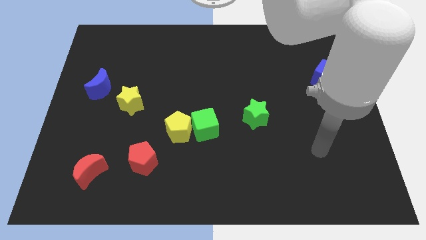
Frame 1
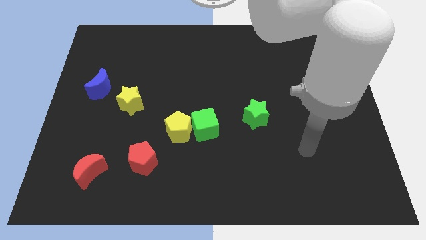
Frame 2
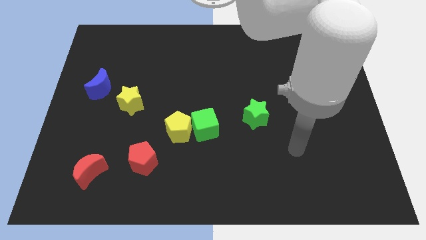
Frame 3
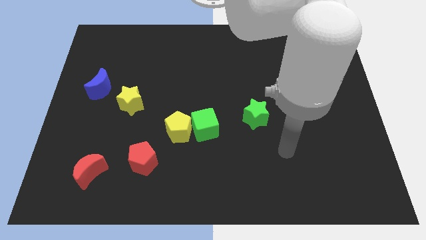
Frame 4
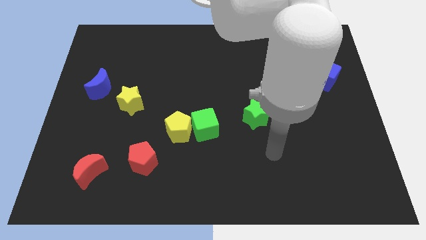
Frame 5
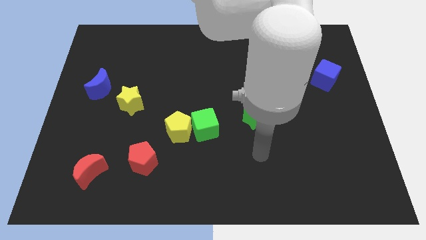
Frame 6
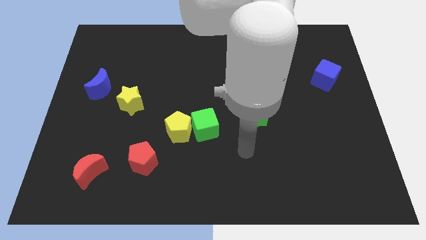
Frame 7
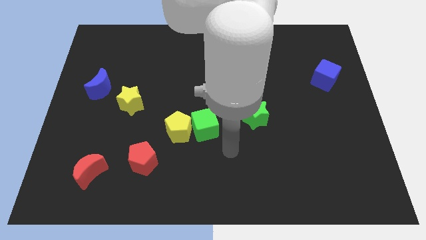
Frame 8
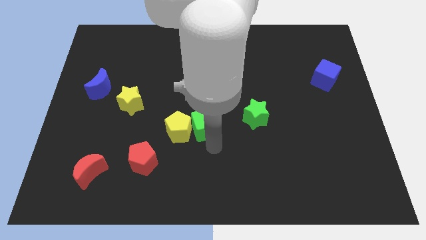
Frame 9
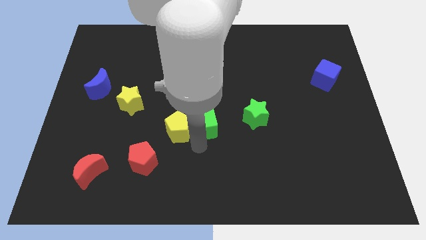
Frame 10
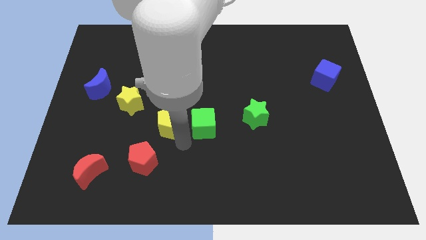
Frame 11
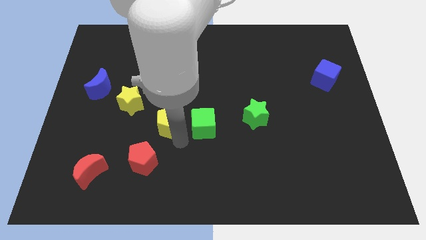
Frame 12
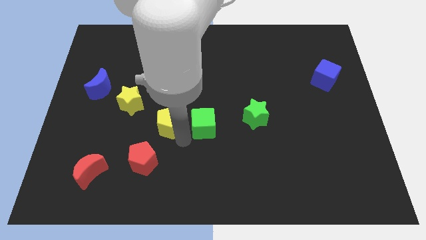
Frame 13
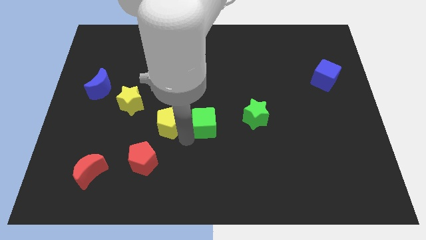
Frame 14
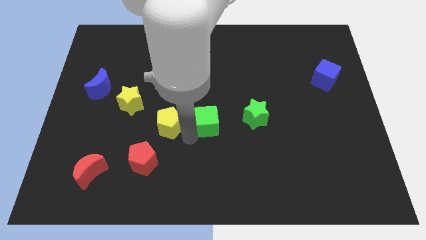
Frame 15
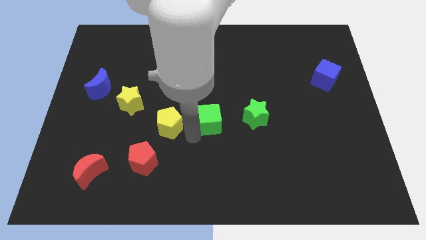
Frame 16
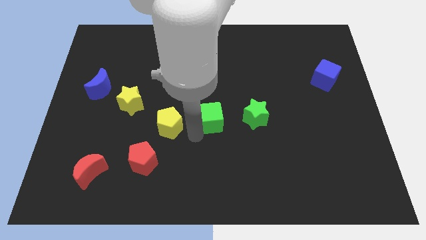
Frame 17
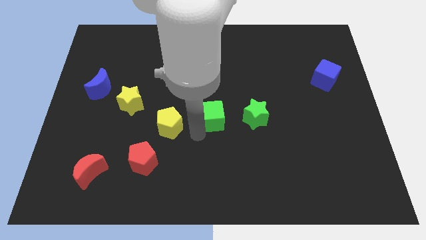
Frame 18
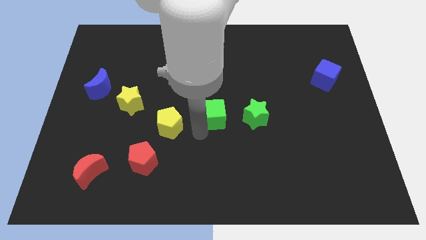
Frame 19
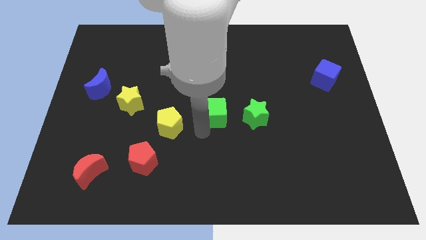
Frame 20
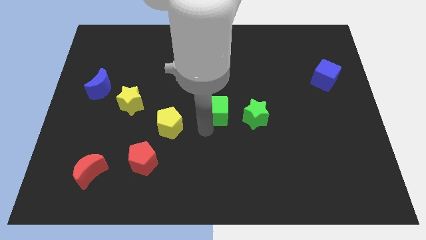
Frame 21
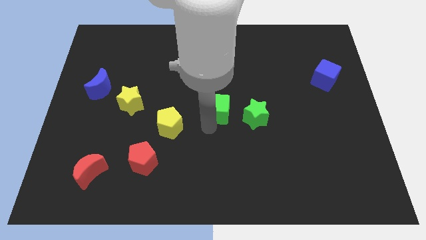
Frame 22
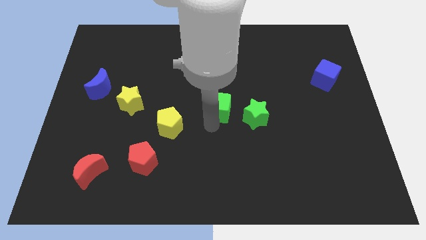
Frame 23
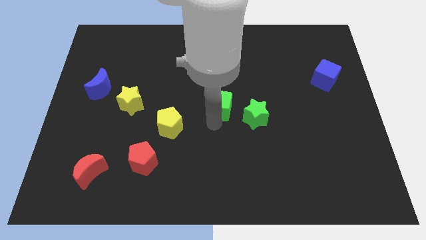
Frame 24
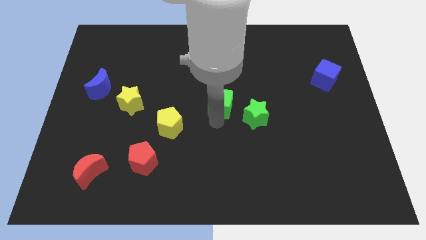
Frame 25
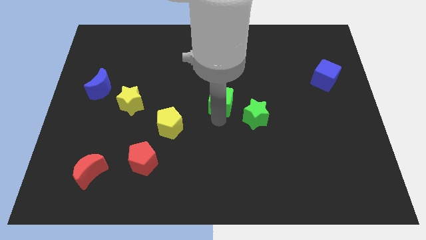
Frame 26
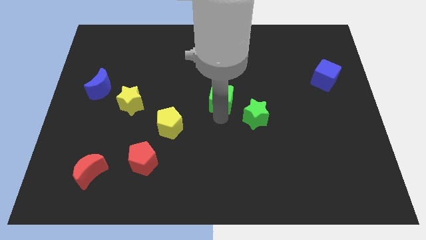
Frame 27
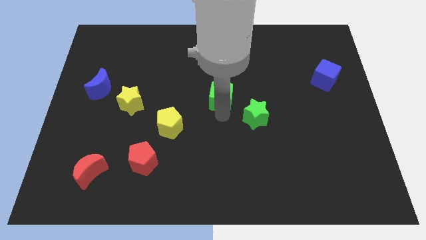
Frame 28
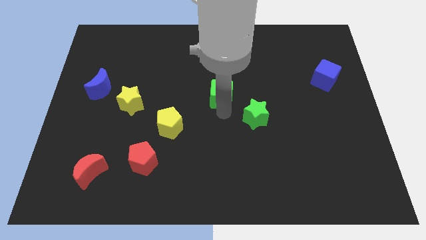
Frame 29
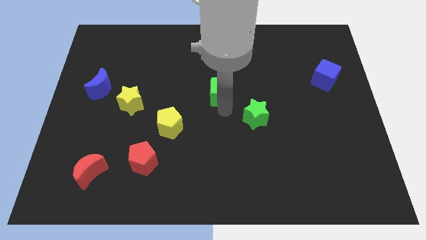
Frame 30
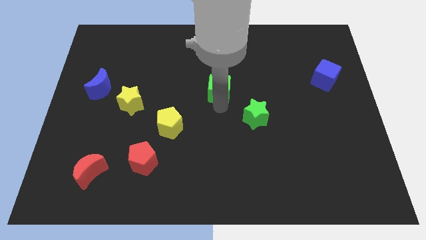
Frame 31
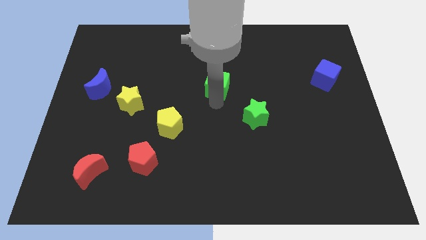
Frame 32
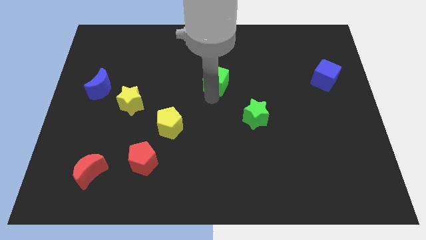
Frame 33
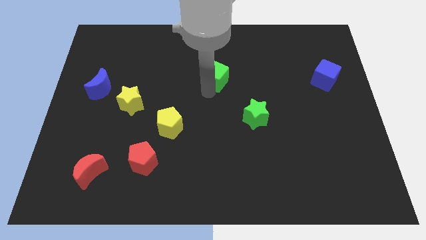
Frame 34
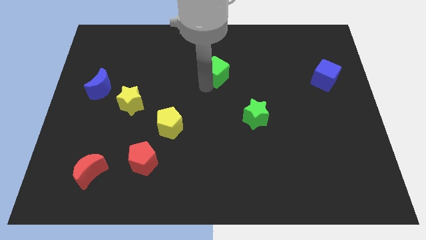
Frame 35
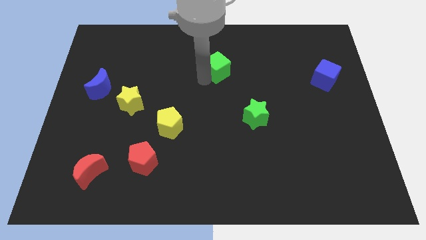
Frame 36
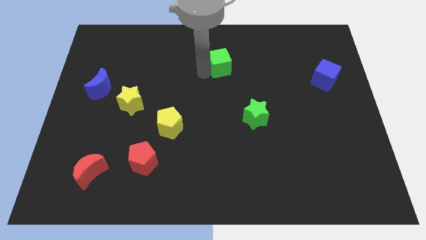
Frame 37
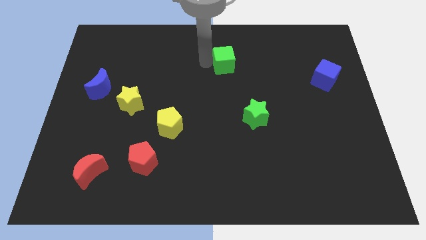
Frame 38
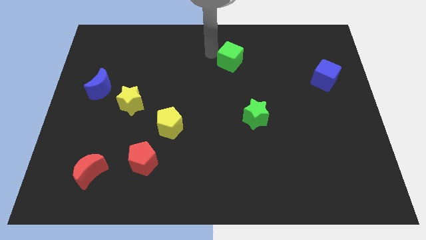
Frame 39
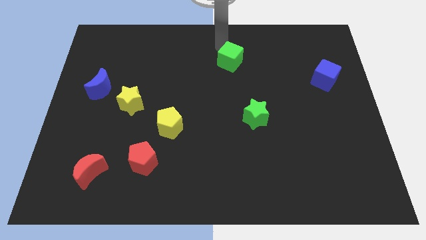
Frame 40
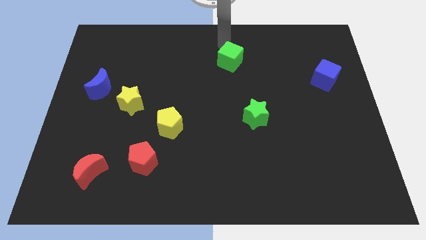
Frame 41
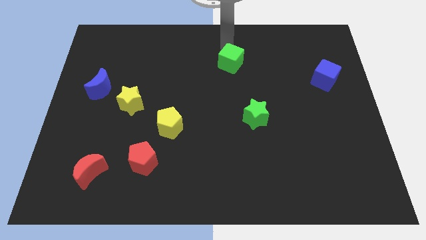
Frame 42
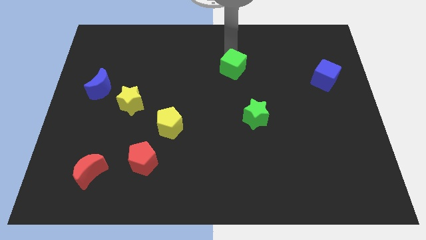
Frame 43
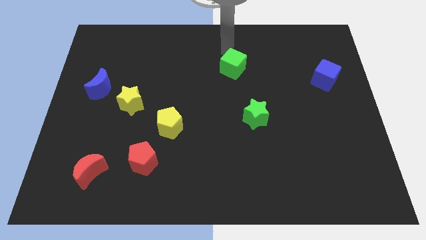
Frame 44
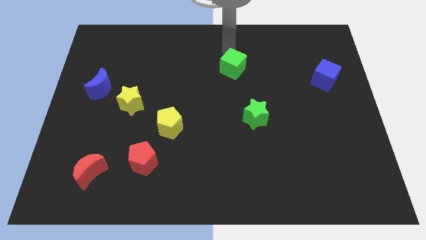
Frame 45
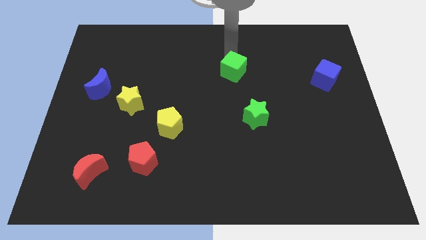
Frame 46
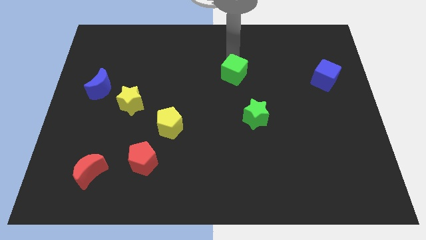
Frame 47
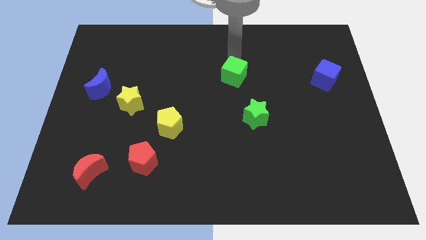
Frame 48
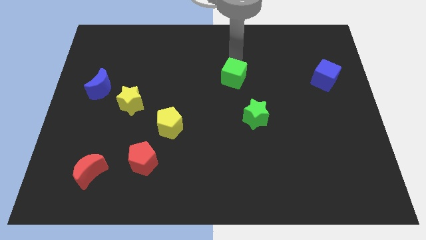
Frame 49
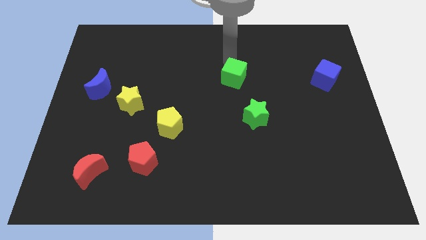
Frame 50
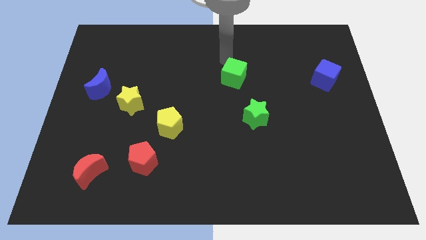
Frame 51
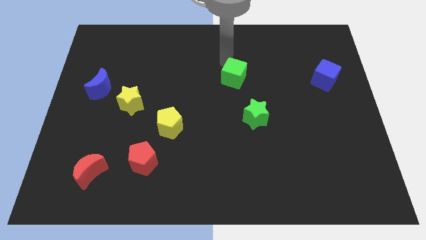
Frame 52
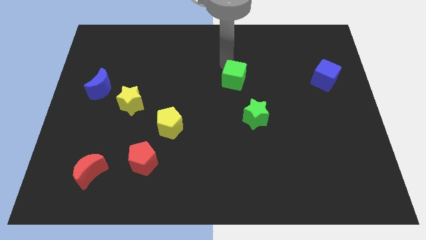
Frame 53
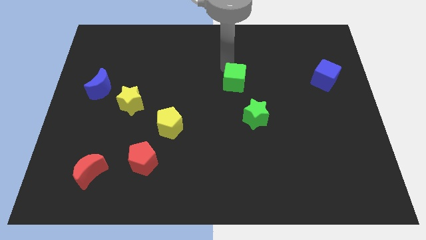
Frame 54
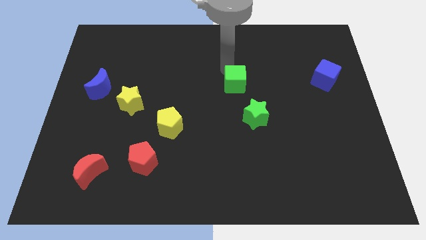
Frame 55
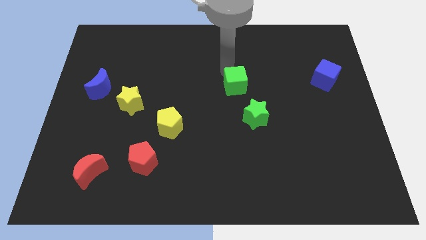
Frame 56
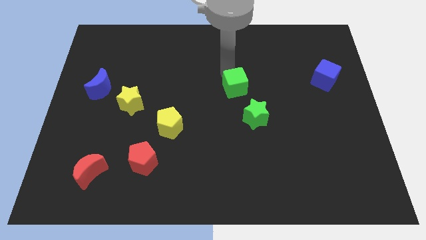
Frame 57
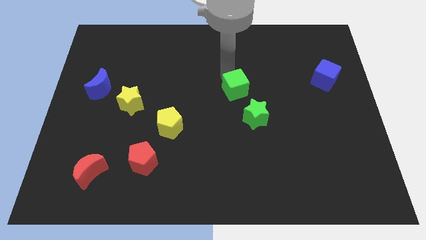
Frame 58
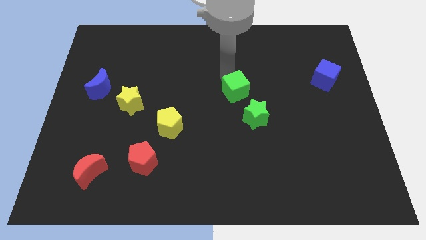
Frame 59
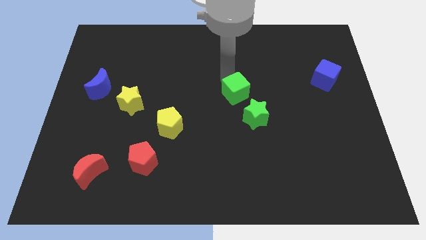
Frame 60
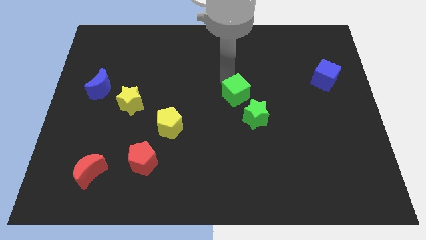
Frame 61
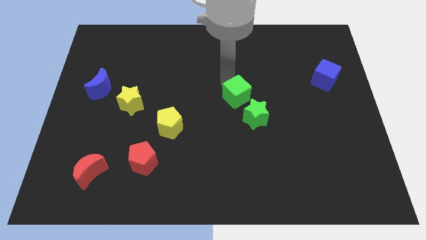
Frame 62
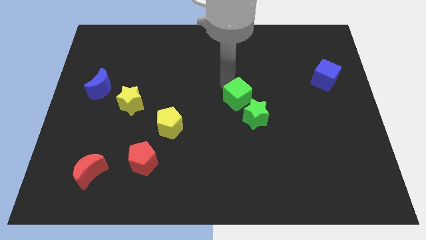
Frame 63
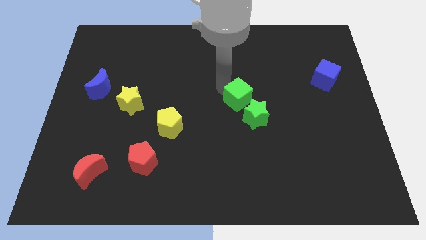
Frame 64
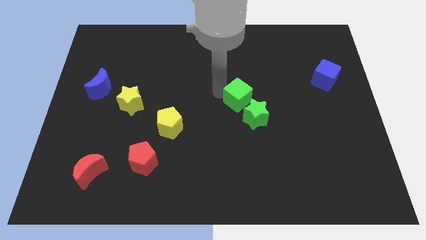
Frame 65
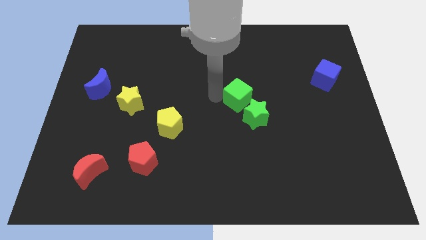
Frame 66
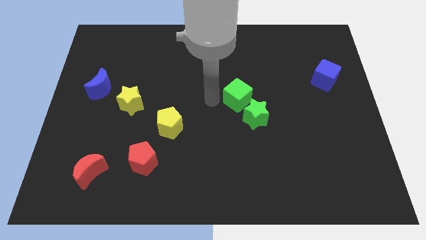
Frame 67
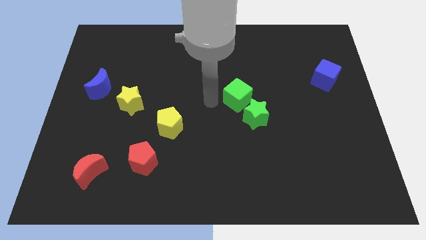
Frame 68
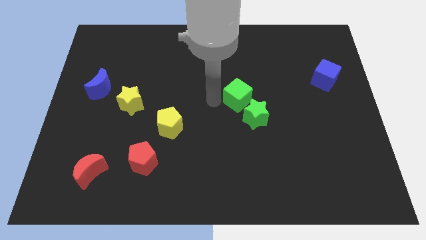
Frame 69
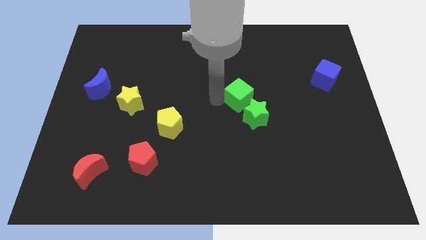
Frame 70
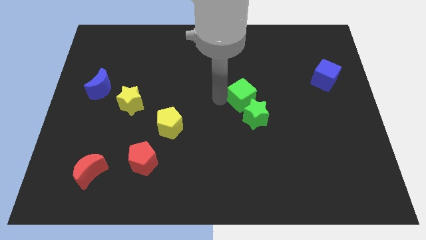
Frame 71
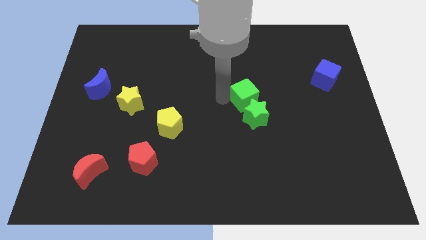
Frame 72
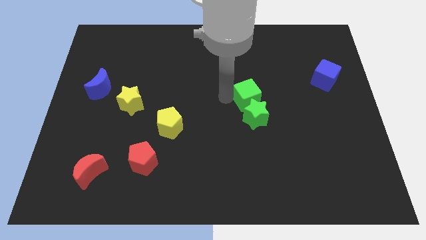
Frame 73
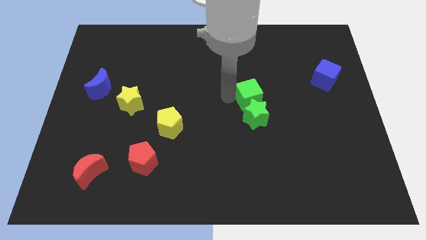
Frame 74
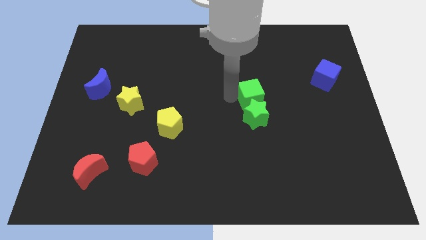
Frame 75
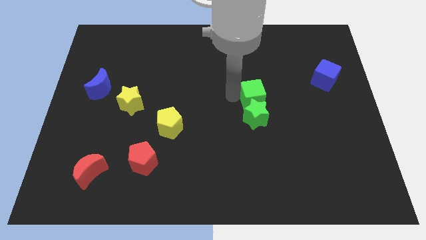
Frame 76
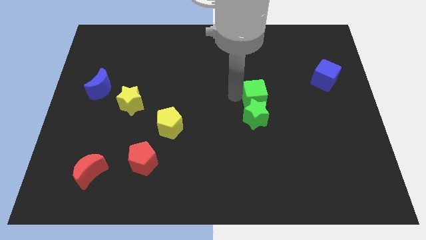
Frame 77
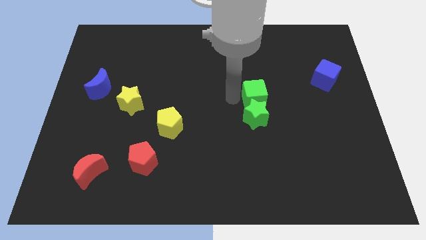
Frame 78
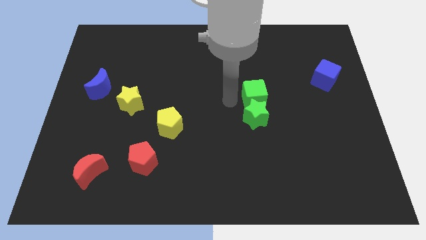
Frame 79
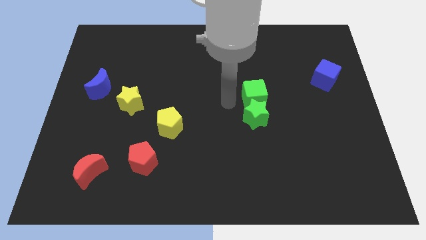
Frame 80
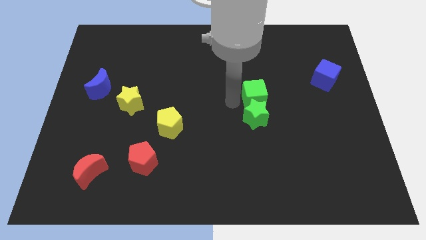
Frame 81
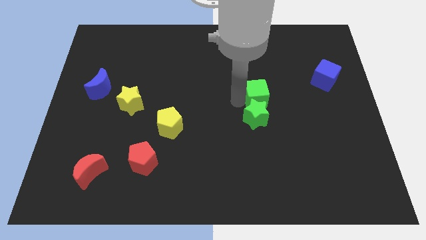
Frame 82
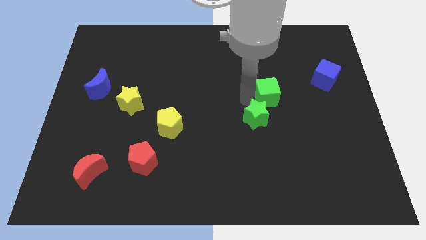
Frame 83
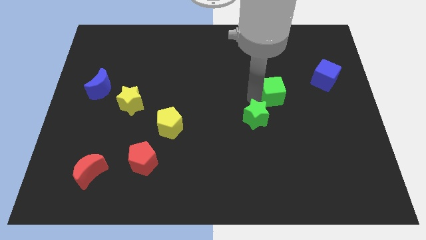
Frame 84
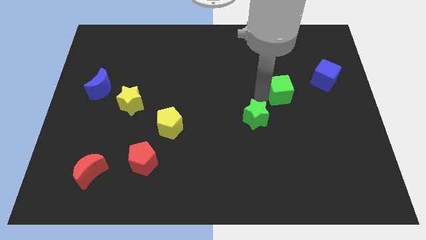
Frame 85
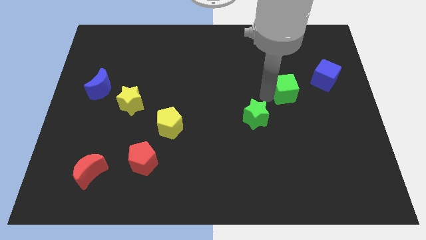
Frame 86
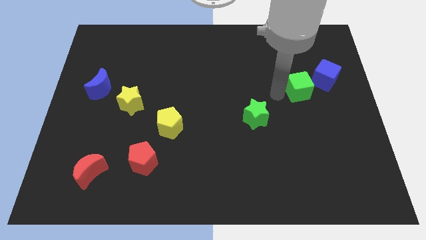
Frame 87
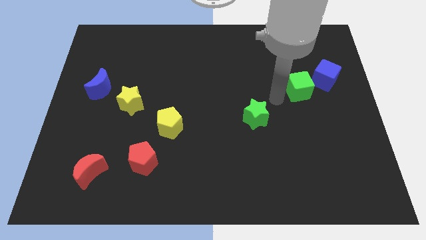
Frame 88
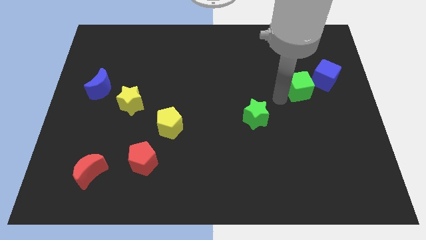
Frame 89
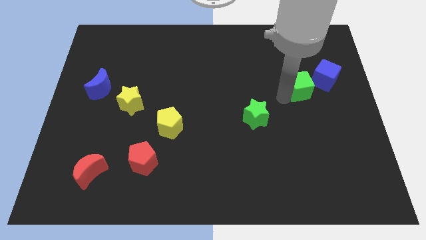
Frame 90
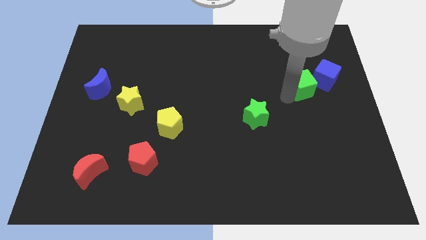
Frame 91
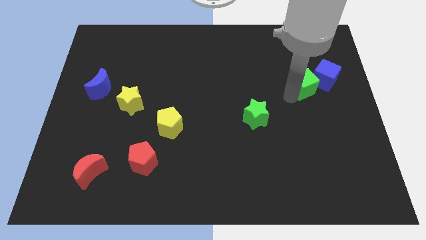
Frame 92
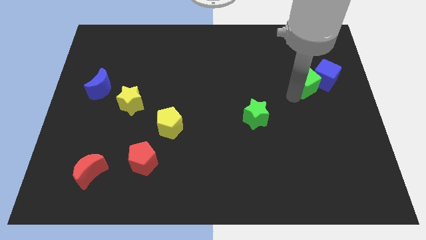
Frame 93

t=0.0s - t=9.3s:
move the green cube towards the blue cube
